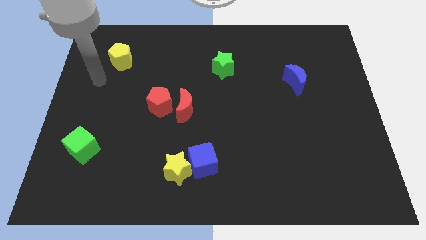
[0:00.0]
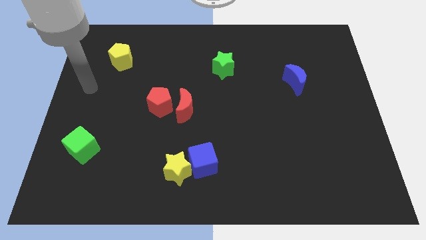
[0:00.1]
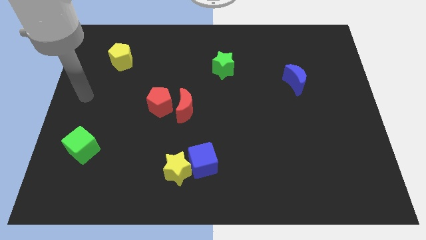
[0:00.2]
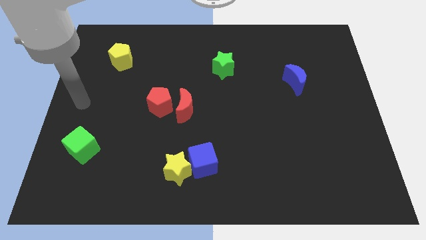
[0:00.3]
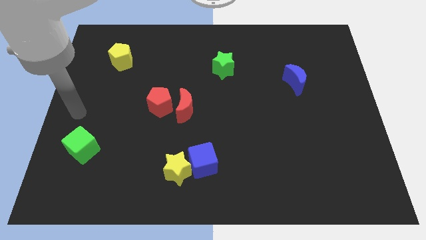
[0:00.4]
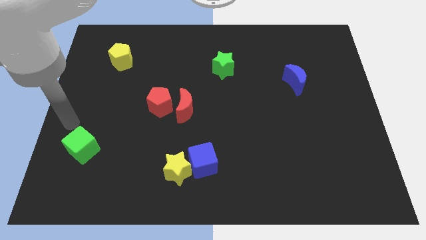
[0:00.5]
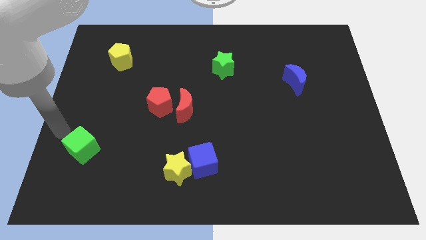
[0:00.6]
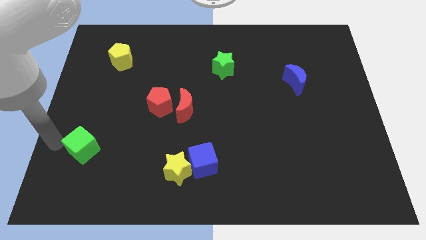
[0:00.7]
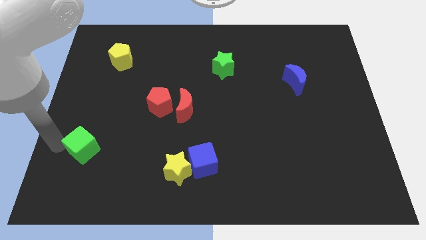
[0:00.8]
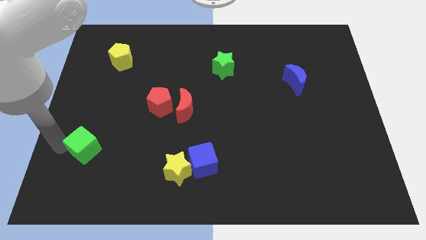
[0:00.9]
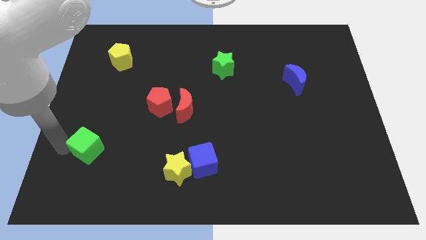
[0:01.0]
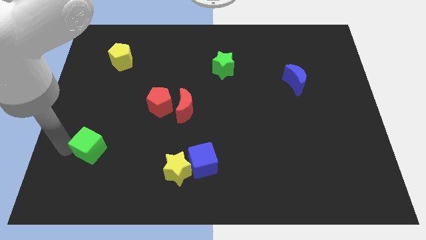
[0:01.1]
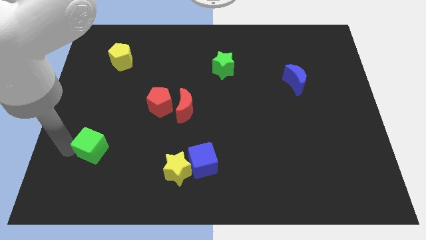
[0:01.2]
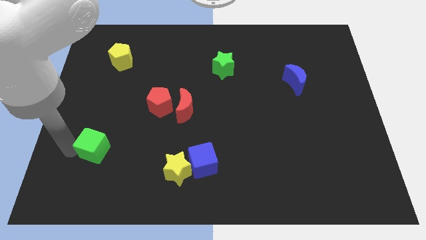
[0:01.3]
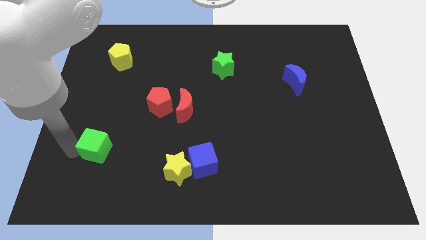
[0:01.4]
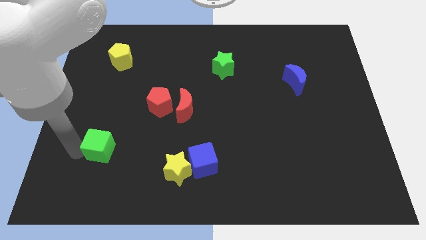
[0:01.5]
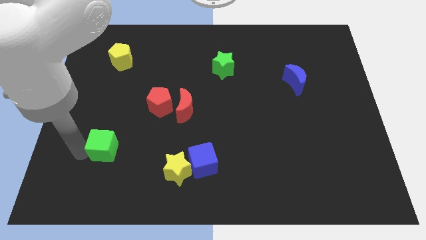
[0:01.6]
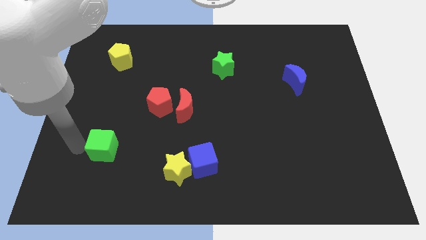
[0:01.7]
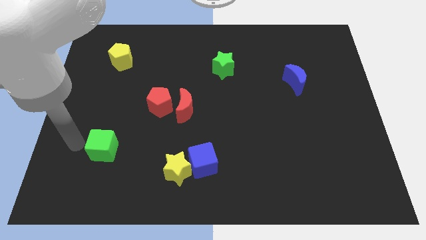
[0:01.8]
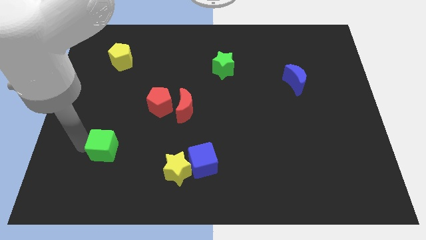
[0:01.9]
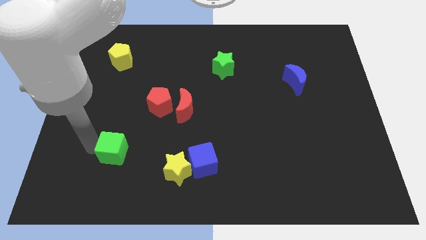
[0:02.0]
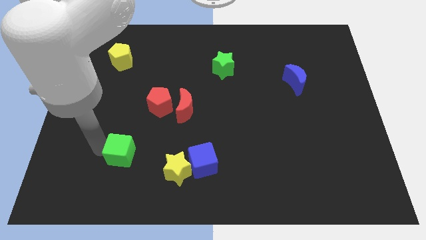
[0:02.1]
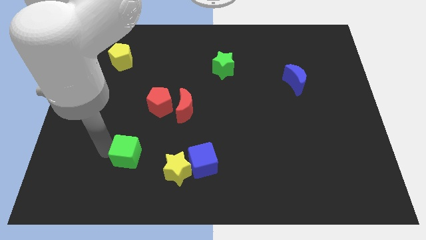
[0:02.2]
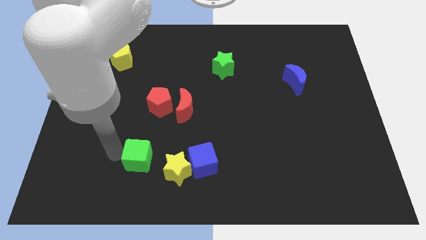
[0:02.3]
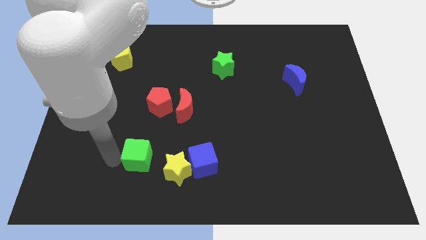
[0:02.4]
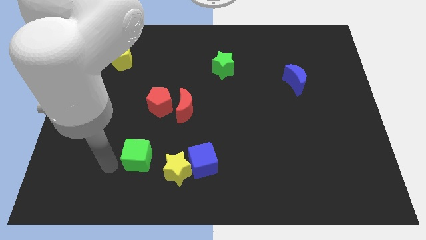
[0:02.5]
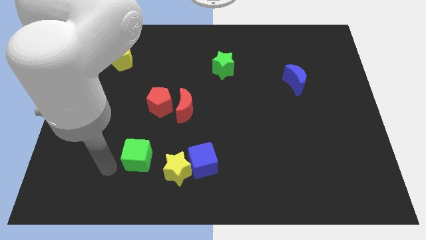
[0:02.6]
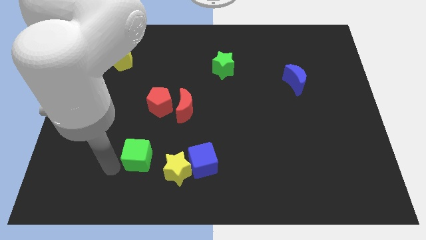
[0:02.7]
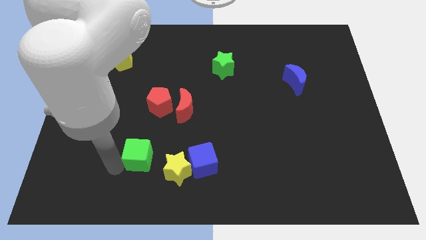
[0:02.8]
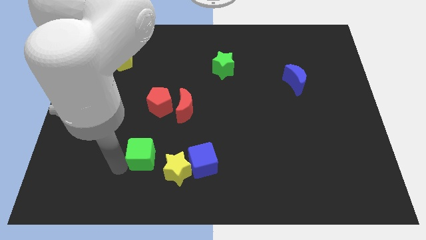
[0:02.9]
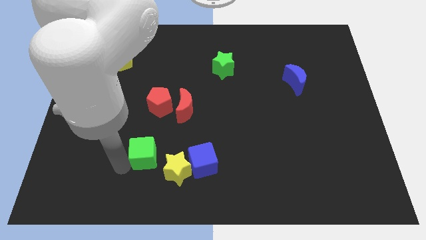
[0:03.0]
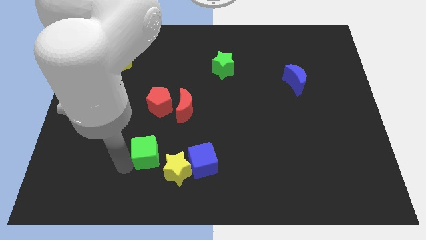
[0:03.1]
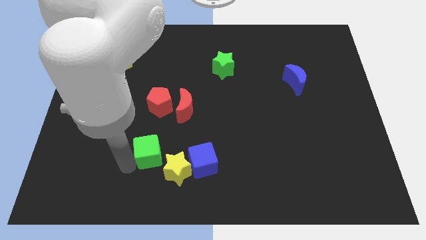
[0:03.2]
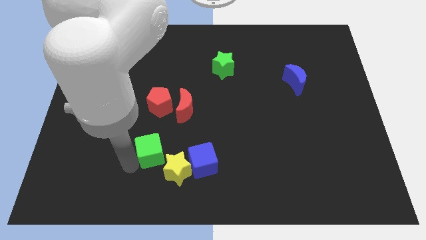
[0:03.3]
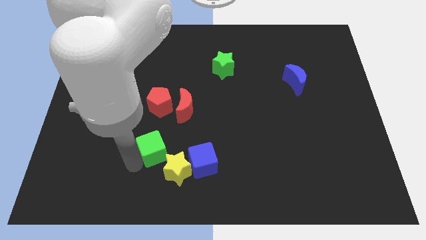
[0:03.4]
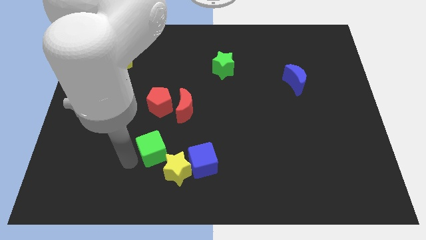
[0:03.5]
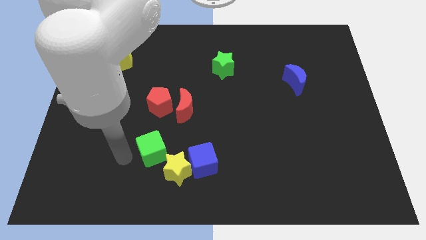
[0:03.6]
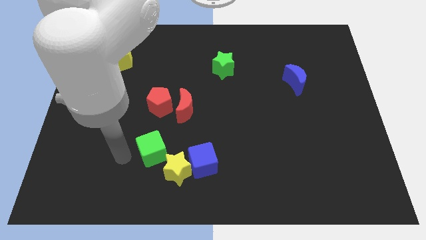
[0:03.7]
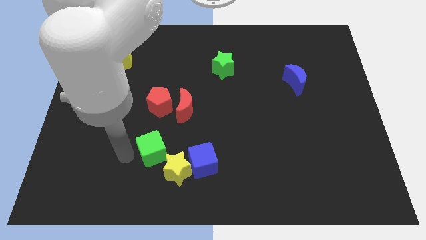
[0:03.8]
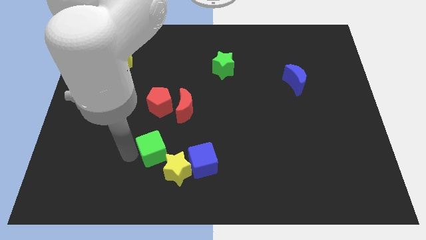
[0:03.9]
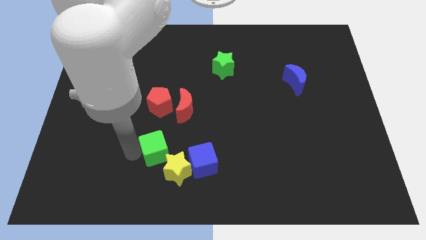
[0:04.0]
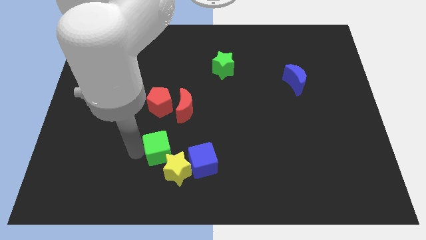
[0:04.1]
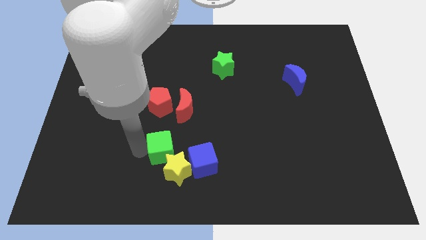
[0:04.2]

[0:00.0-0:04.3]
push the green cube to the bottom side of the red moon

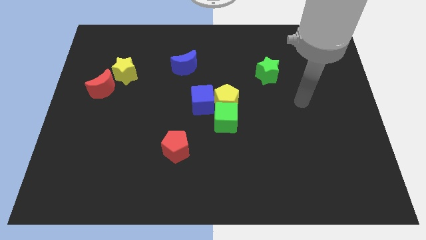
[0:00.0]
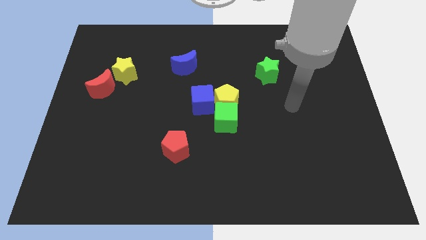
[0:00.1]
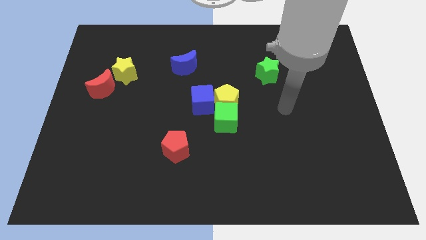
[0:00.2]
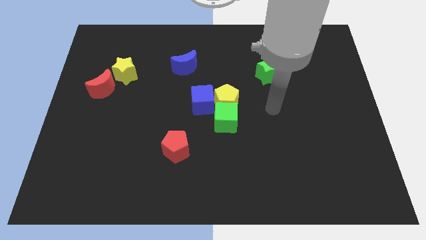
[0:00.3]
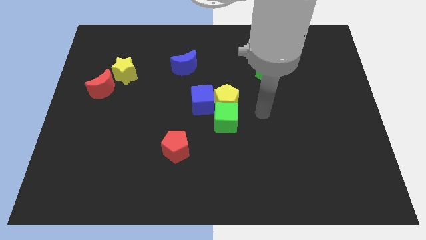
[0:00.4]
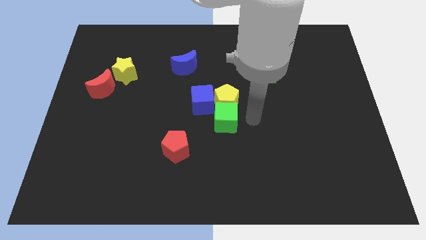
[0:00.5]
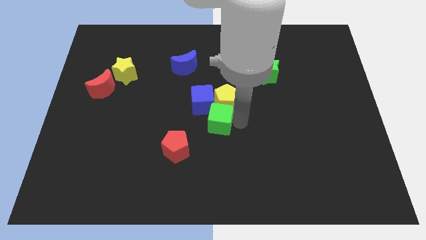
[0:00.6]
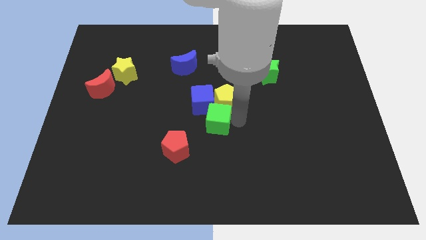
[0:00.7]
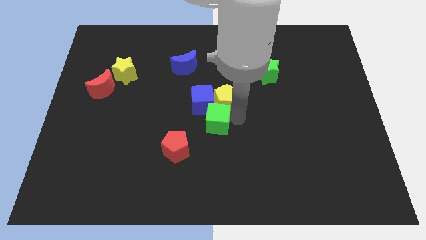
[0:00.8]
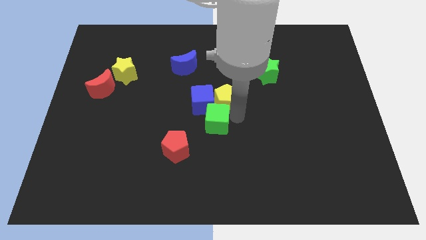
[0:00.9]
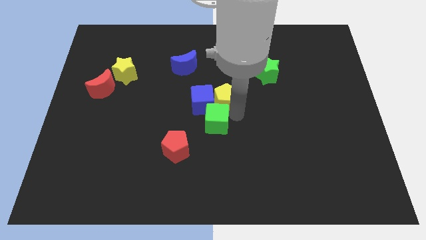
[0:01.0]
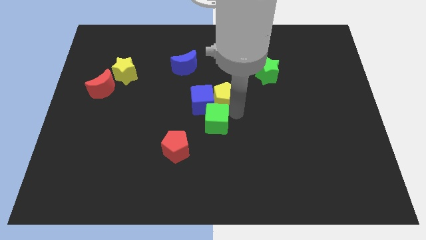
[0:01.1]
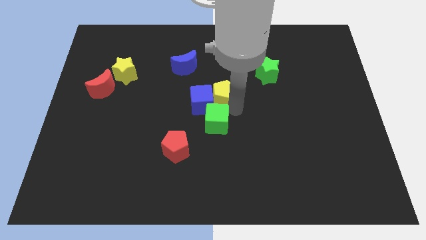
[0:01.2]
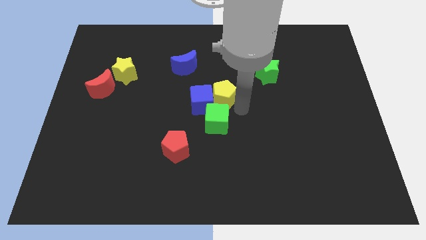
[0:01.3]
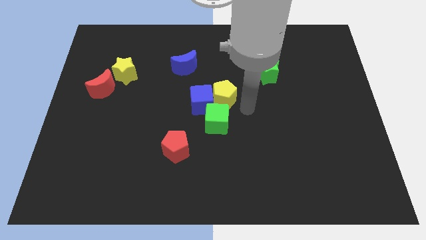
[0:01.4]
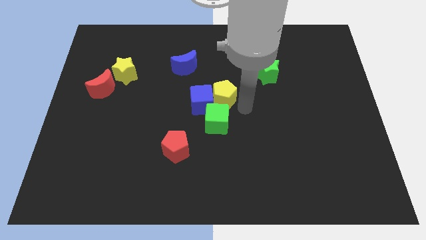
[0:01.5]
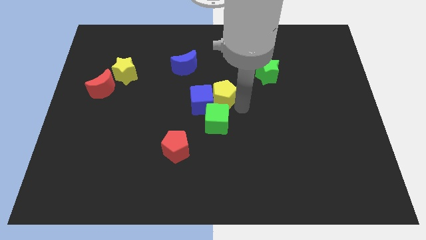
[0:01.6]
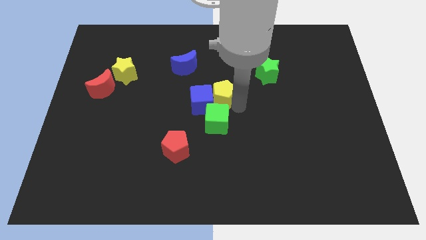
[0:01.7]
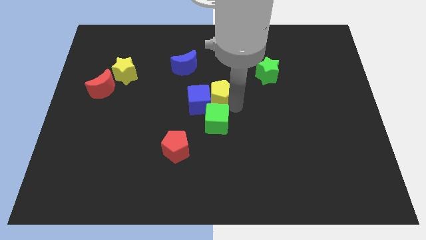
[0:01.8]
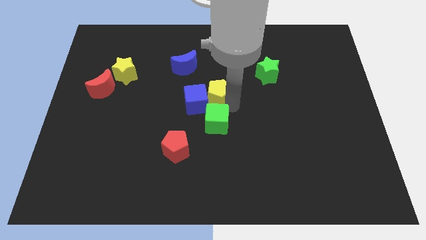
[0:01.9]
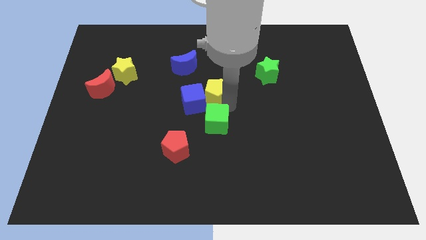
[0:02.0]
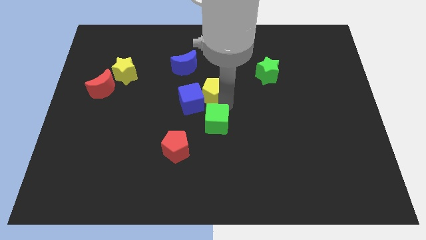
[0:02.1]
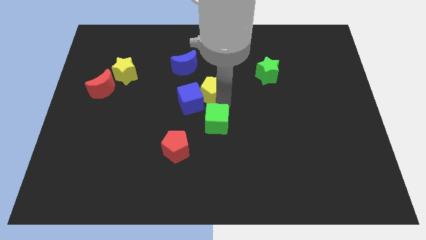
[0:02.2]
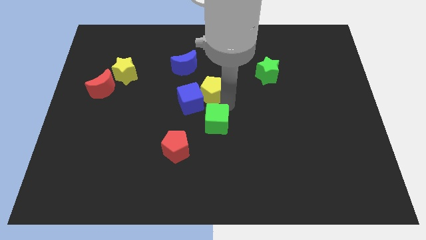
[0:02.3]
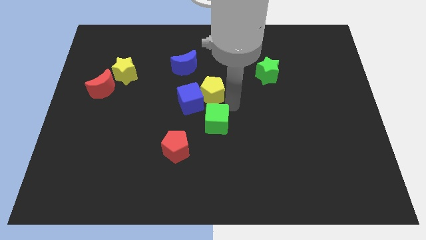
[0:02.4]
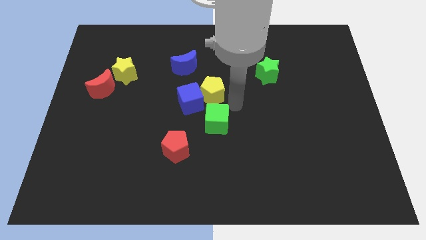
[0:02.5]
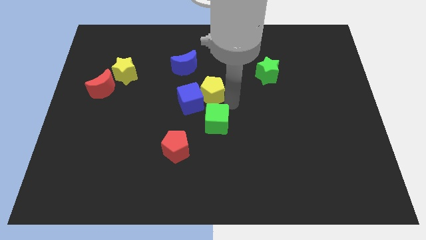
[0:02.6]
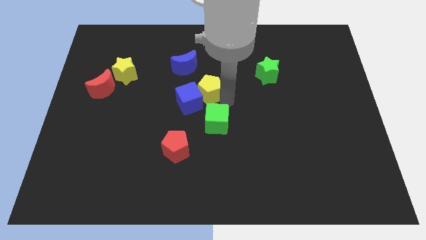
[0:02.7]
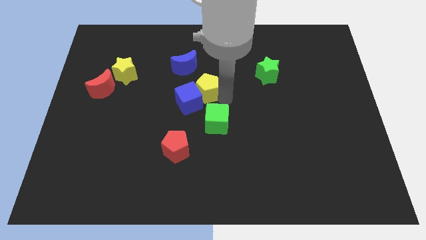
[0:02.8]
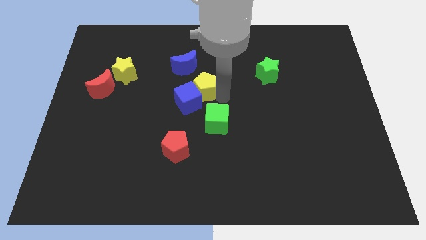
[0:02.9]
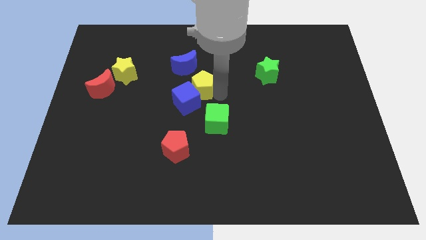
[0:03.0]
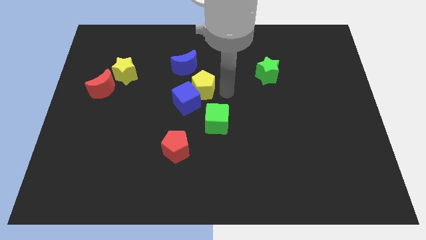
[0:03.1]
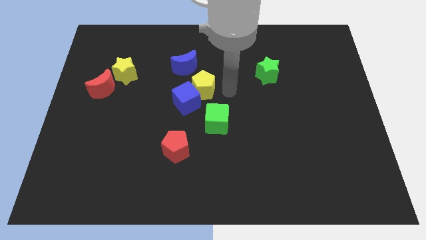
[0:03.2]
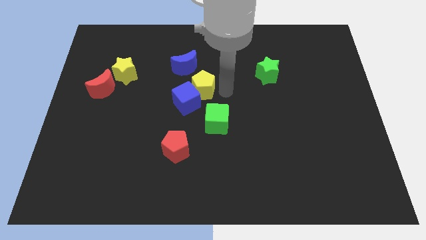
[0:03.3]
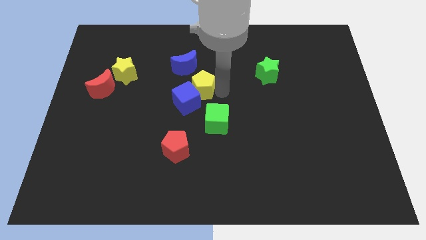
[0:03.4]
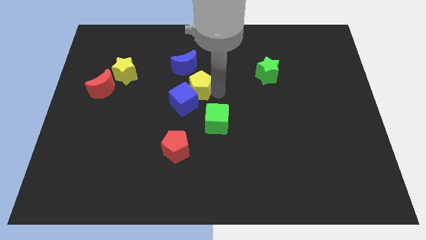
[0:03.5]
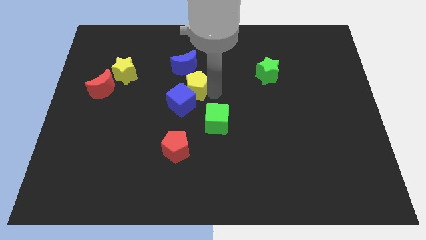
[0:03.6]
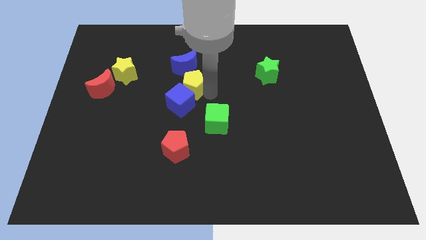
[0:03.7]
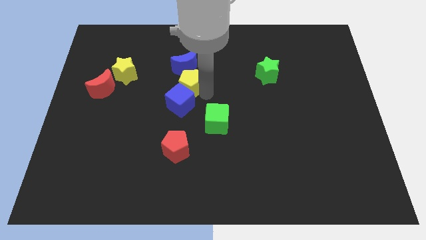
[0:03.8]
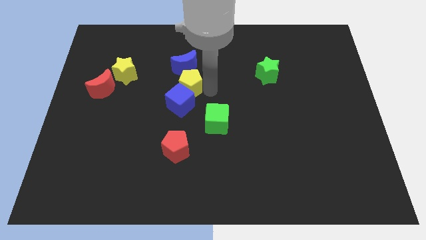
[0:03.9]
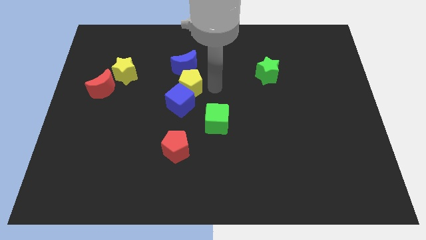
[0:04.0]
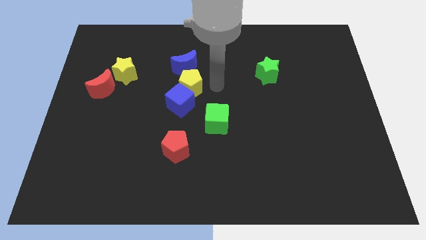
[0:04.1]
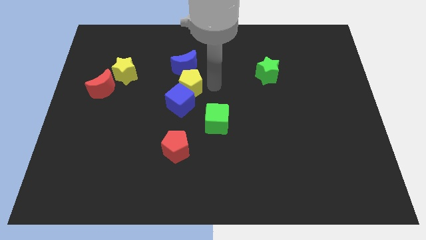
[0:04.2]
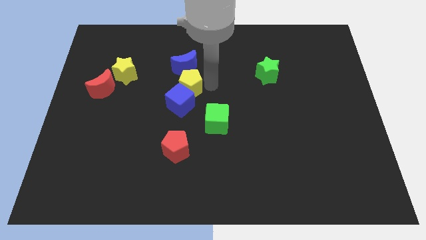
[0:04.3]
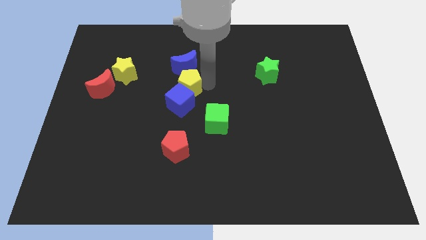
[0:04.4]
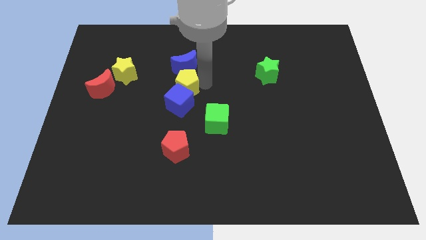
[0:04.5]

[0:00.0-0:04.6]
push the yellow pentagon diagonally up and to the left of the blue cube
